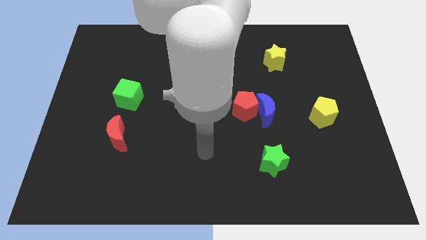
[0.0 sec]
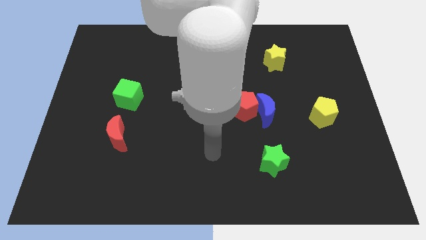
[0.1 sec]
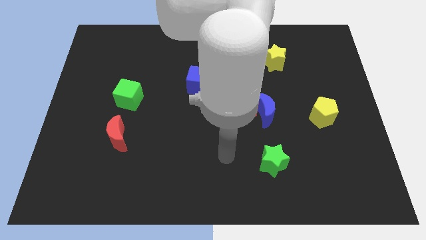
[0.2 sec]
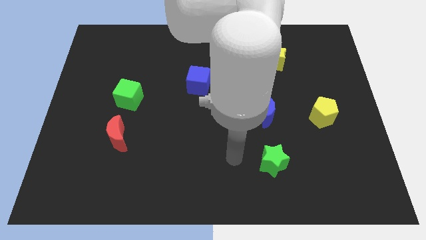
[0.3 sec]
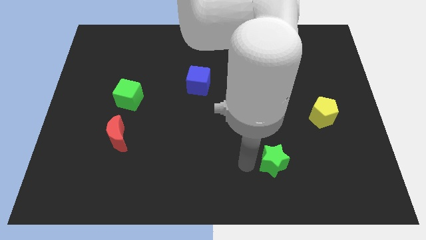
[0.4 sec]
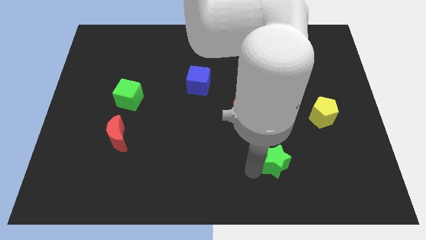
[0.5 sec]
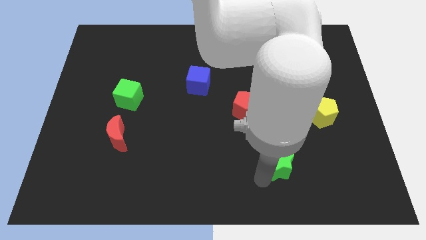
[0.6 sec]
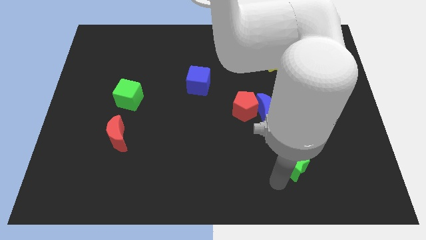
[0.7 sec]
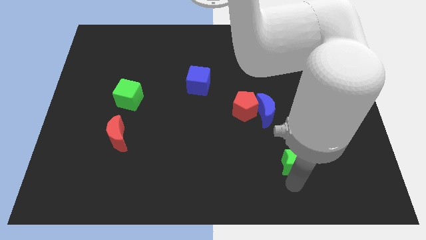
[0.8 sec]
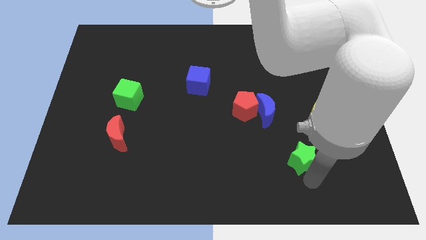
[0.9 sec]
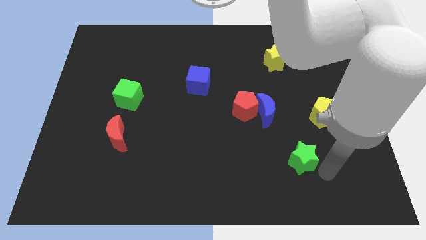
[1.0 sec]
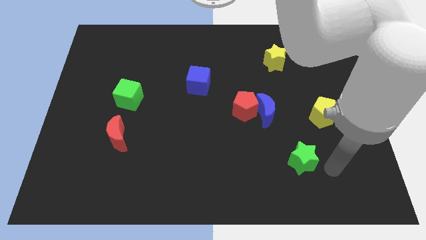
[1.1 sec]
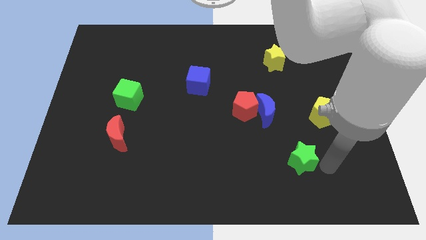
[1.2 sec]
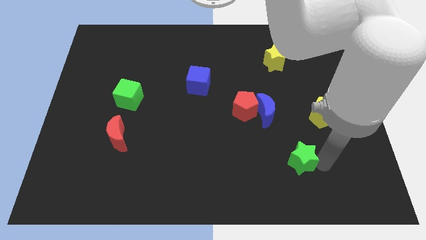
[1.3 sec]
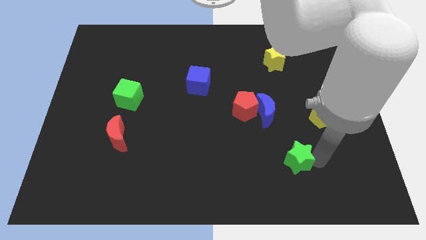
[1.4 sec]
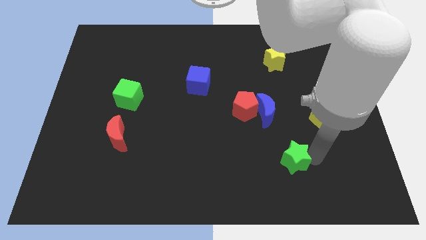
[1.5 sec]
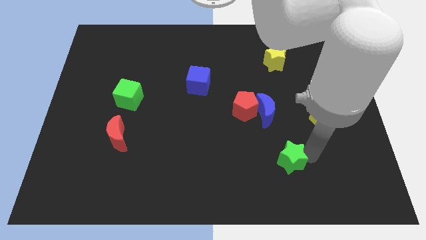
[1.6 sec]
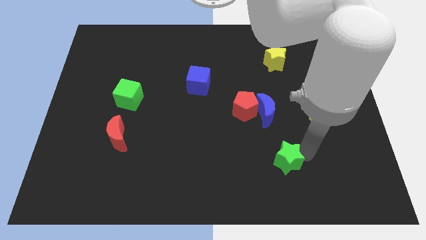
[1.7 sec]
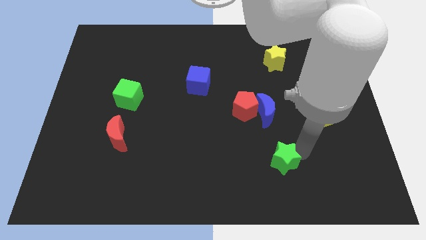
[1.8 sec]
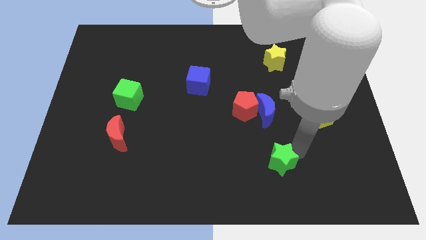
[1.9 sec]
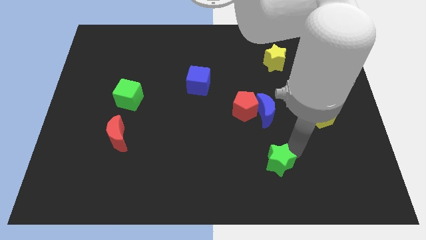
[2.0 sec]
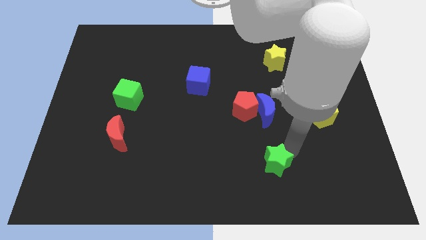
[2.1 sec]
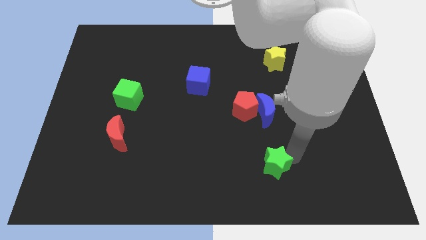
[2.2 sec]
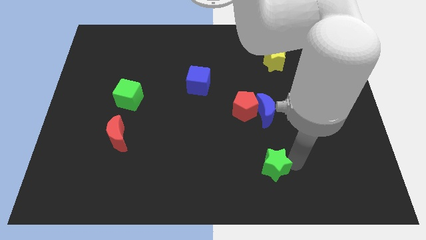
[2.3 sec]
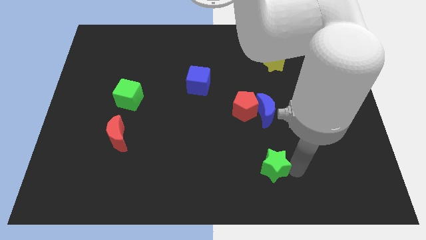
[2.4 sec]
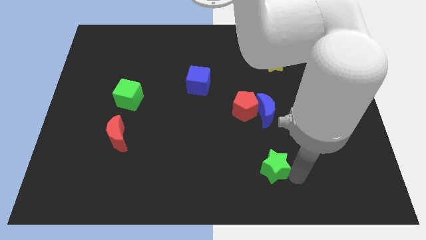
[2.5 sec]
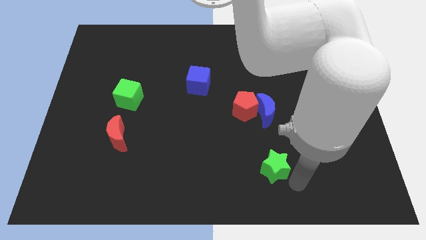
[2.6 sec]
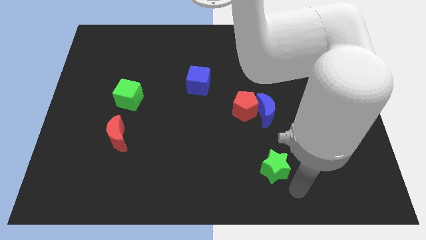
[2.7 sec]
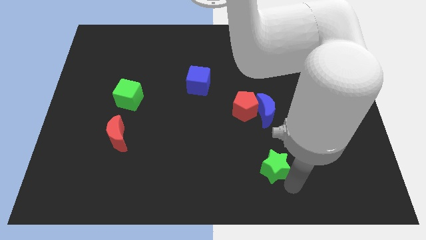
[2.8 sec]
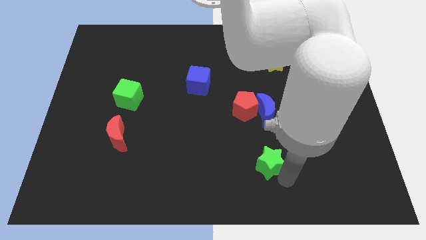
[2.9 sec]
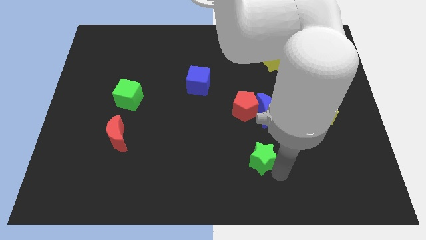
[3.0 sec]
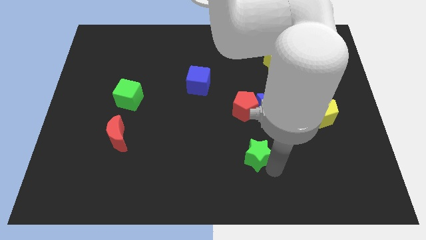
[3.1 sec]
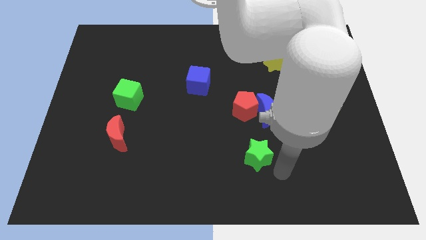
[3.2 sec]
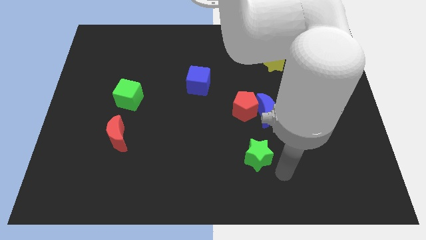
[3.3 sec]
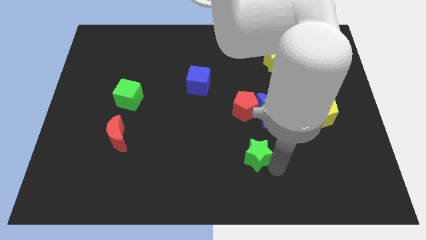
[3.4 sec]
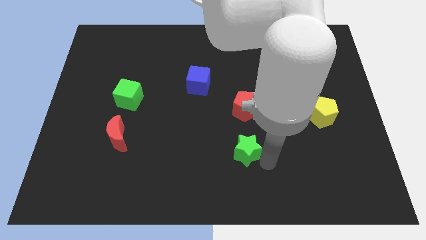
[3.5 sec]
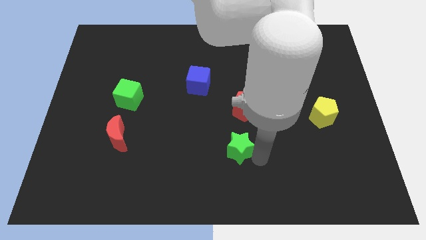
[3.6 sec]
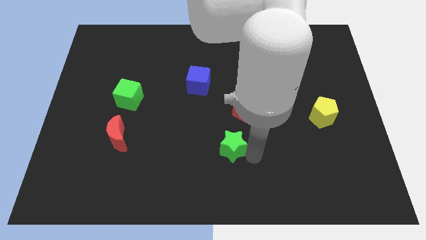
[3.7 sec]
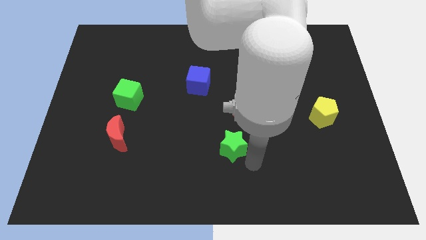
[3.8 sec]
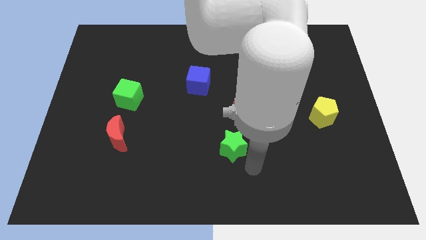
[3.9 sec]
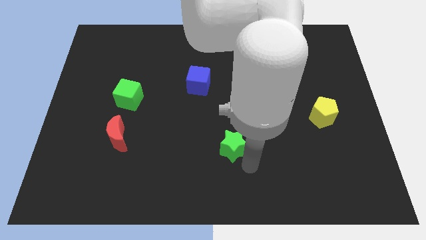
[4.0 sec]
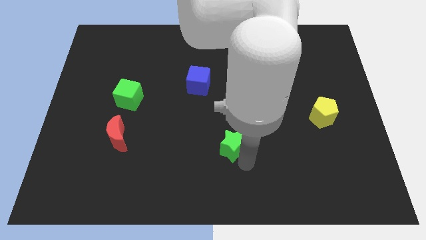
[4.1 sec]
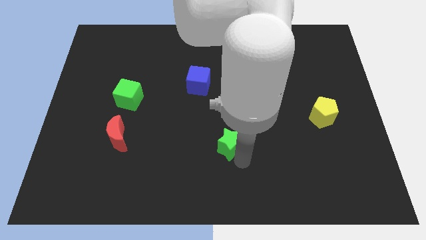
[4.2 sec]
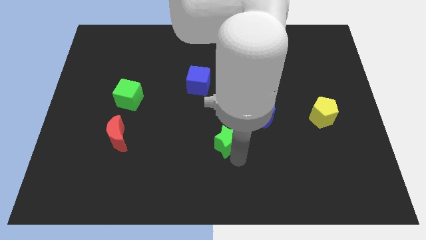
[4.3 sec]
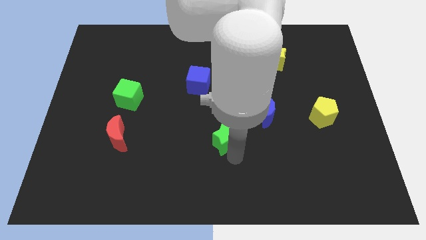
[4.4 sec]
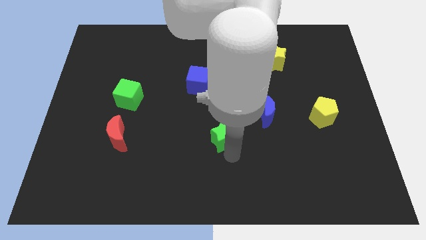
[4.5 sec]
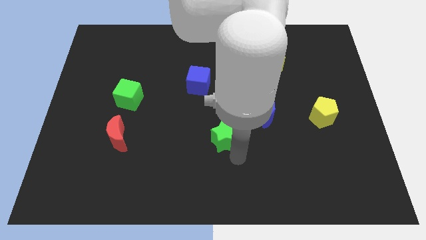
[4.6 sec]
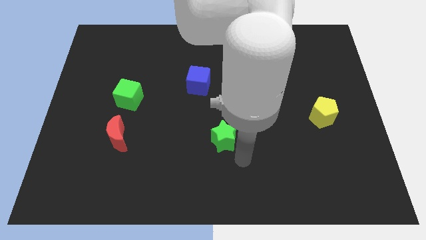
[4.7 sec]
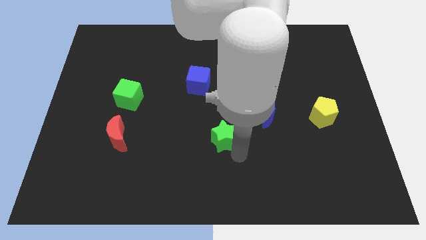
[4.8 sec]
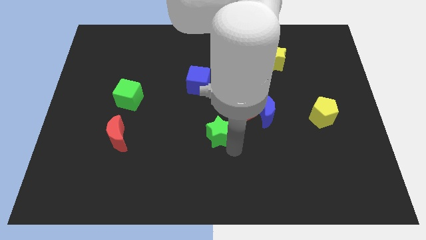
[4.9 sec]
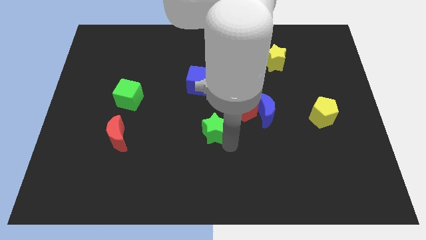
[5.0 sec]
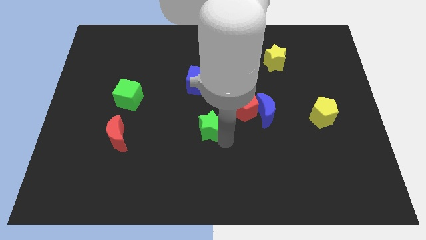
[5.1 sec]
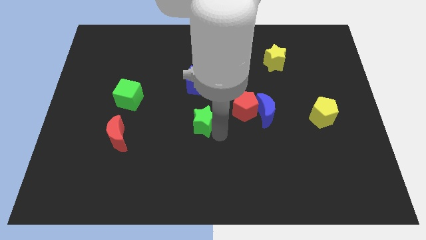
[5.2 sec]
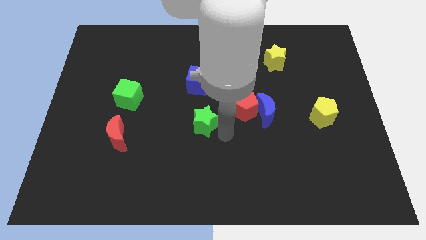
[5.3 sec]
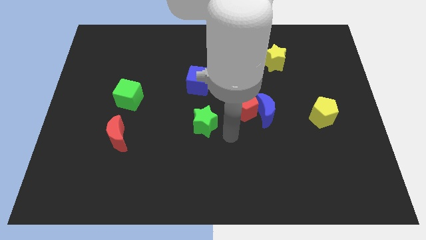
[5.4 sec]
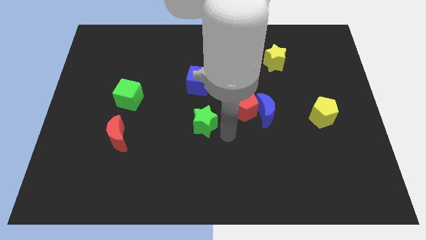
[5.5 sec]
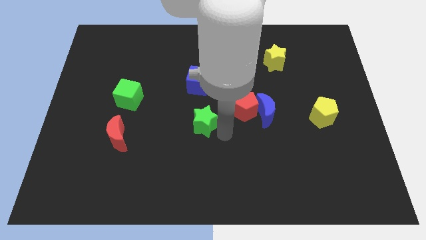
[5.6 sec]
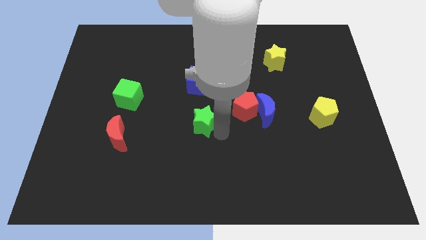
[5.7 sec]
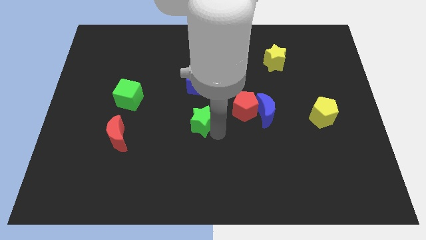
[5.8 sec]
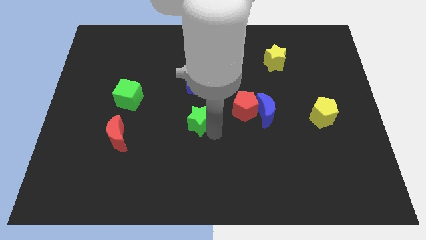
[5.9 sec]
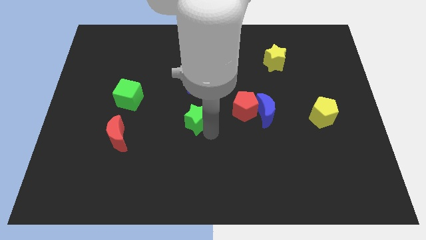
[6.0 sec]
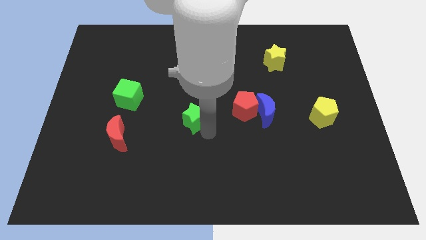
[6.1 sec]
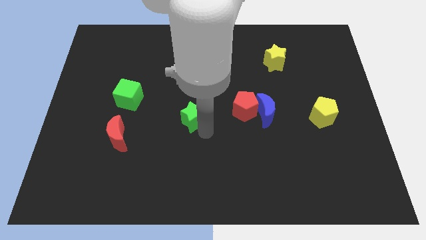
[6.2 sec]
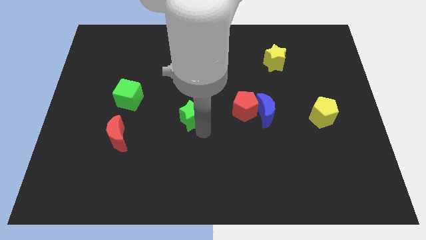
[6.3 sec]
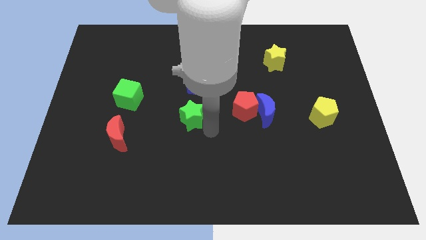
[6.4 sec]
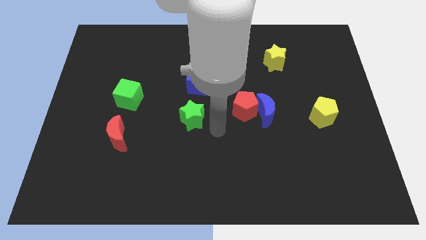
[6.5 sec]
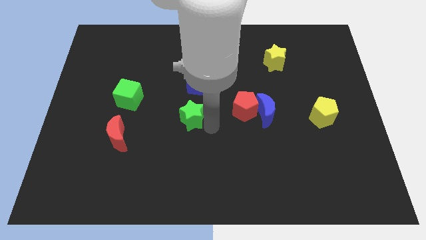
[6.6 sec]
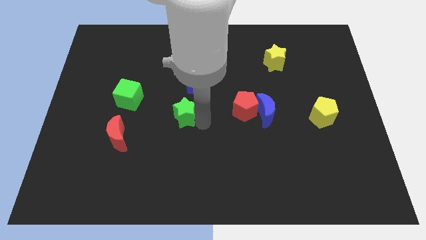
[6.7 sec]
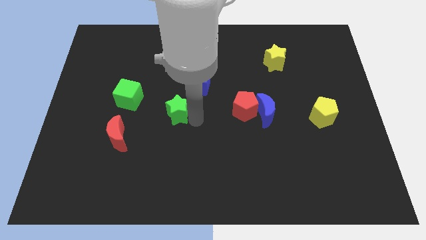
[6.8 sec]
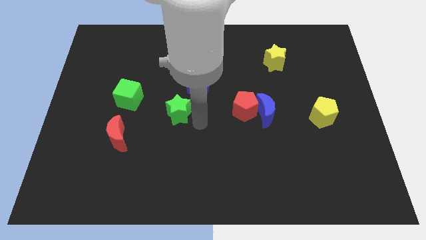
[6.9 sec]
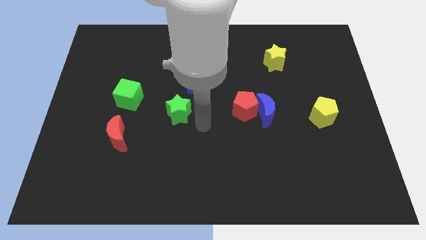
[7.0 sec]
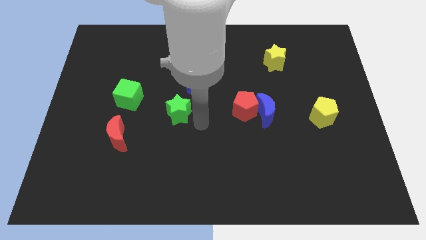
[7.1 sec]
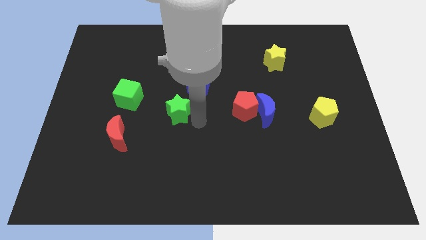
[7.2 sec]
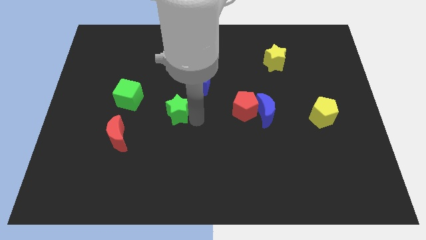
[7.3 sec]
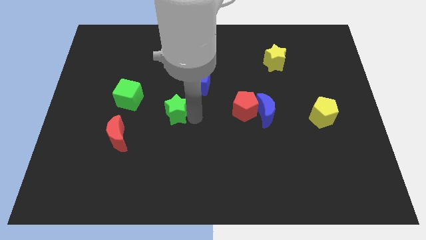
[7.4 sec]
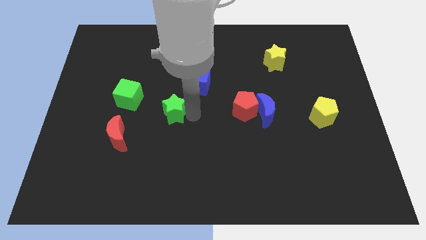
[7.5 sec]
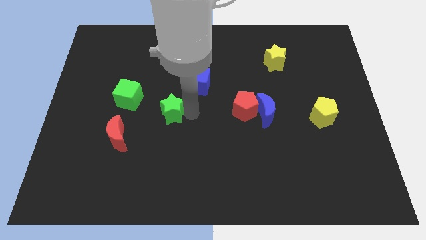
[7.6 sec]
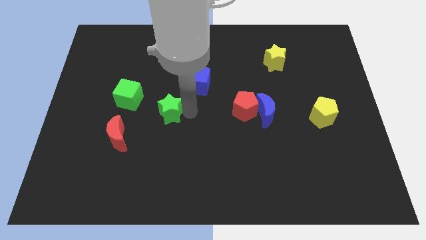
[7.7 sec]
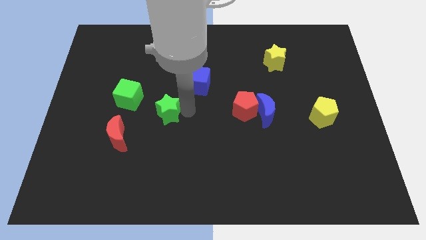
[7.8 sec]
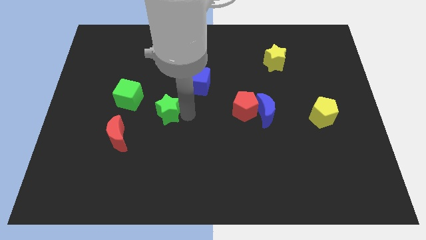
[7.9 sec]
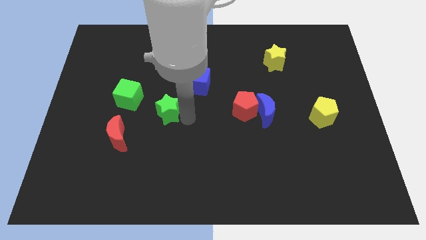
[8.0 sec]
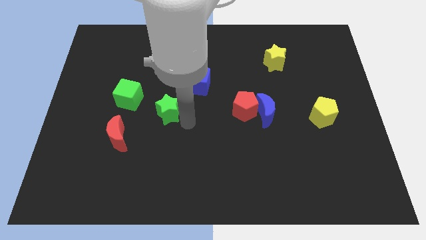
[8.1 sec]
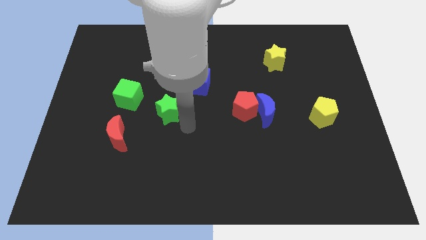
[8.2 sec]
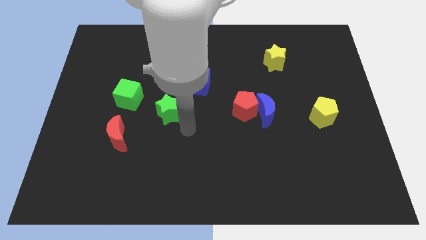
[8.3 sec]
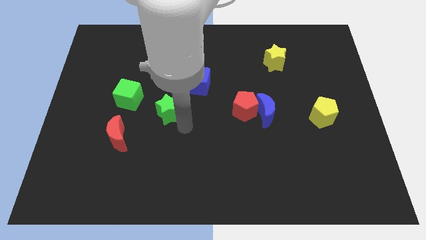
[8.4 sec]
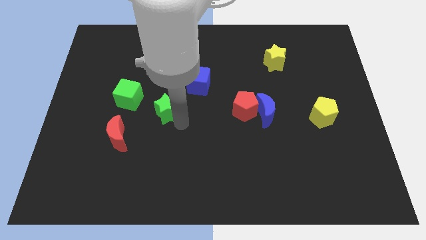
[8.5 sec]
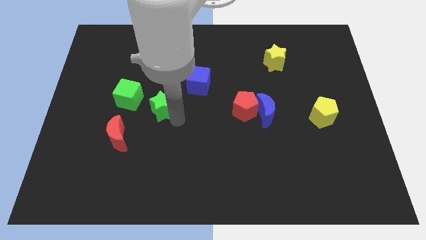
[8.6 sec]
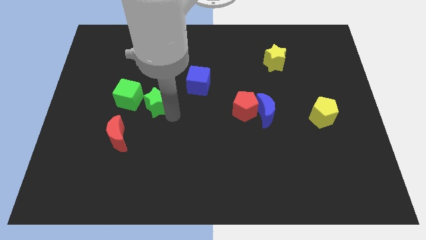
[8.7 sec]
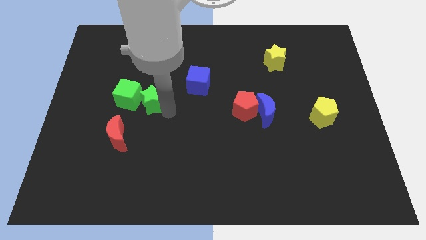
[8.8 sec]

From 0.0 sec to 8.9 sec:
push the green star close to the green cube
